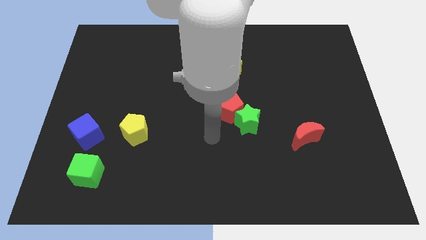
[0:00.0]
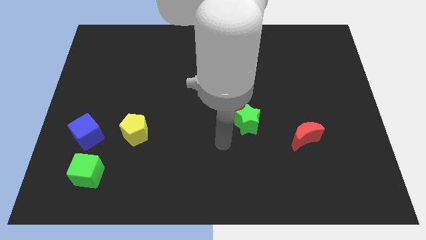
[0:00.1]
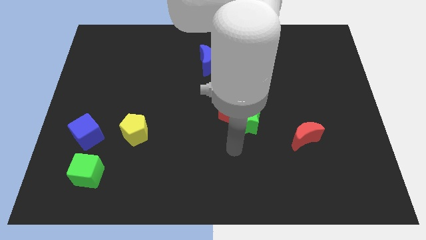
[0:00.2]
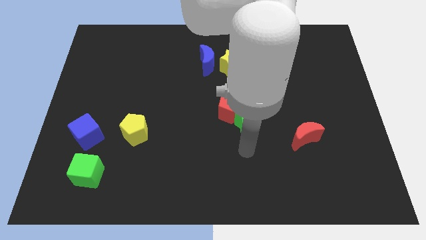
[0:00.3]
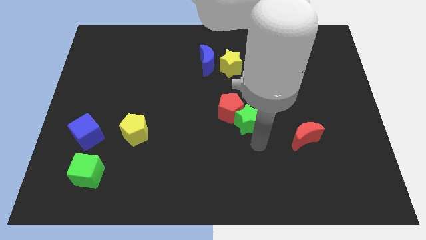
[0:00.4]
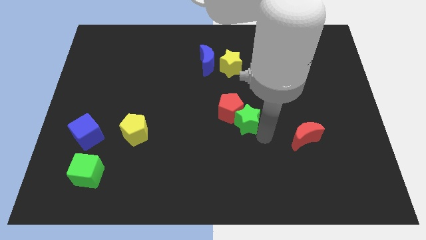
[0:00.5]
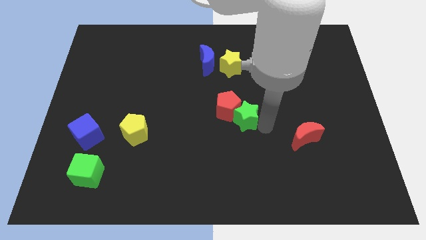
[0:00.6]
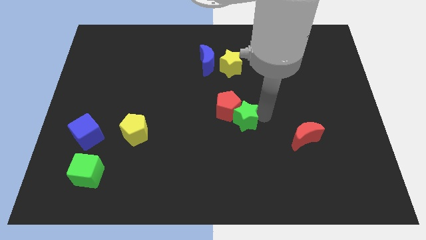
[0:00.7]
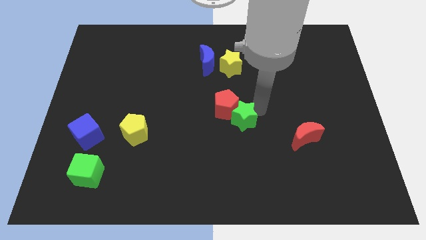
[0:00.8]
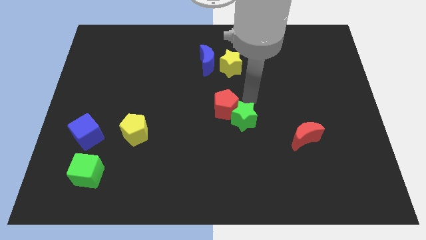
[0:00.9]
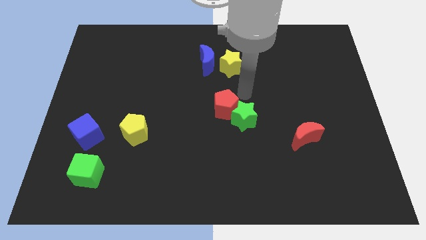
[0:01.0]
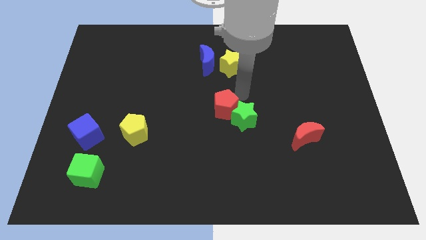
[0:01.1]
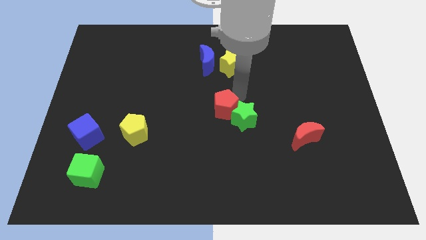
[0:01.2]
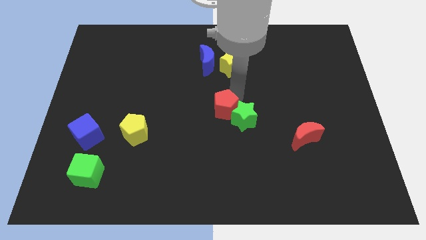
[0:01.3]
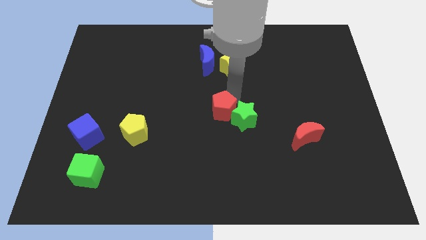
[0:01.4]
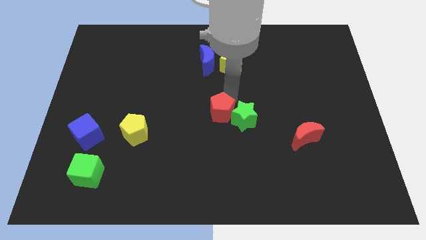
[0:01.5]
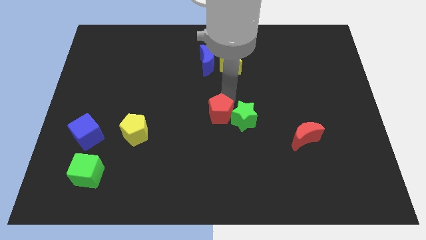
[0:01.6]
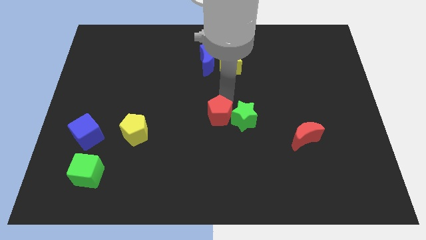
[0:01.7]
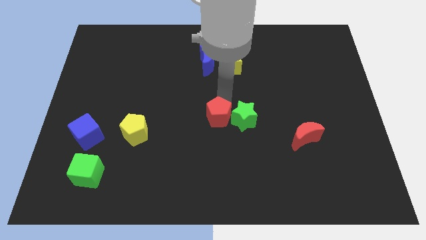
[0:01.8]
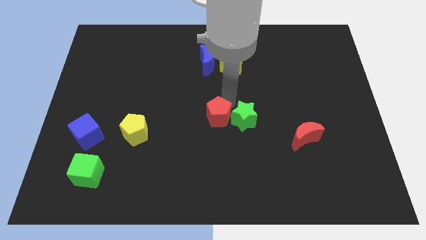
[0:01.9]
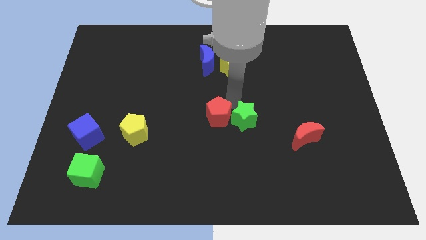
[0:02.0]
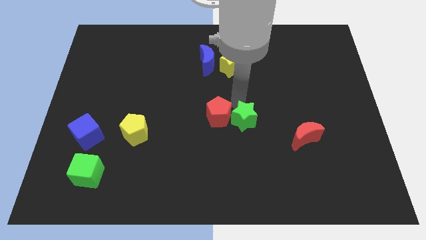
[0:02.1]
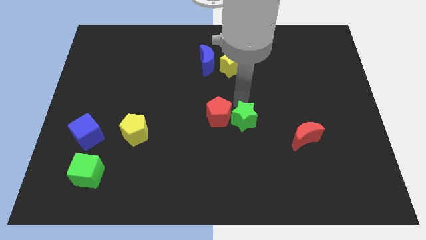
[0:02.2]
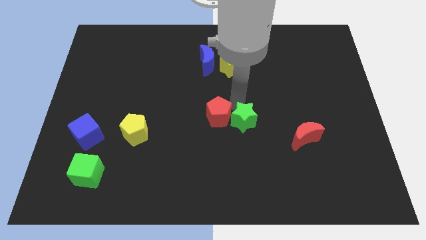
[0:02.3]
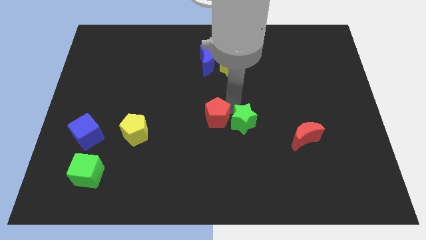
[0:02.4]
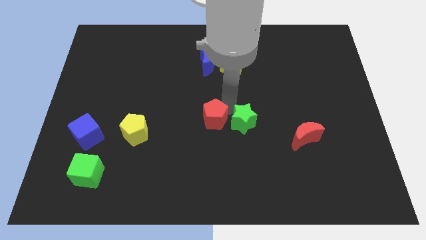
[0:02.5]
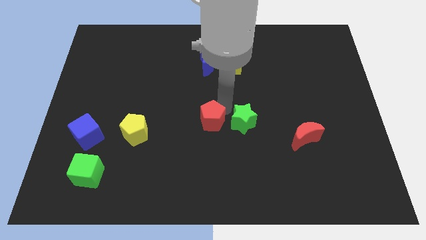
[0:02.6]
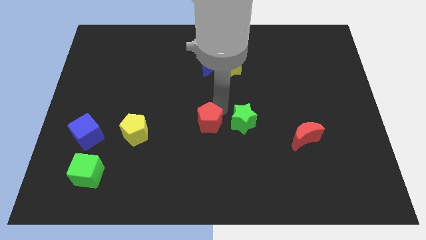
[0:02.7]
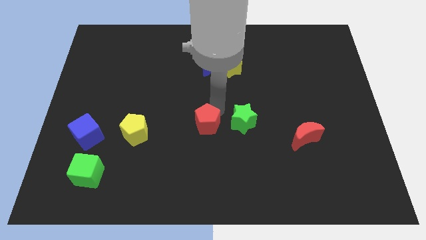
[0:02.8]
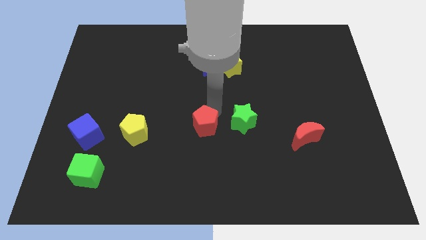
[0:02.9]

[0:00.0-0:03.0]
slightly push the red pentagon down and then to the left

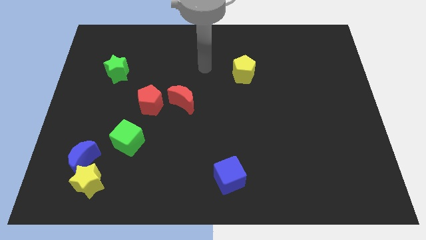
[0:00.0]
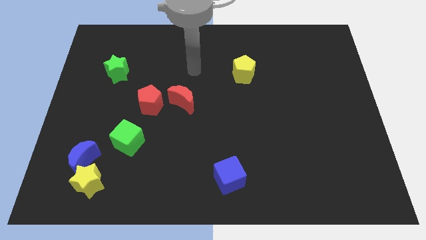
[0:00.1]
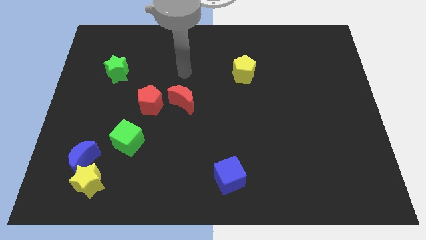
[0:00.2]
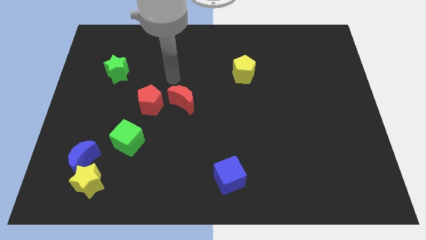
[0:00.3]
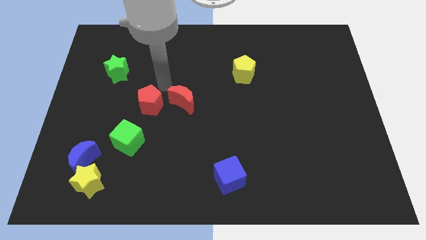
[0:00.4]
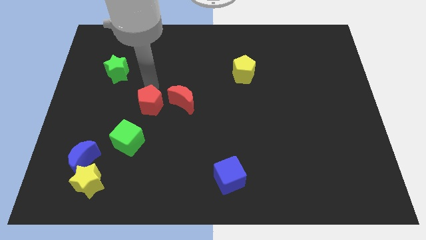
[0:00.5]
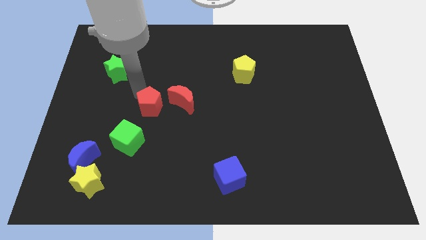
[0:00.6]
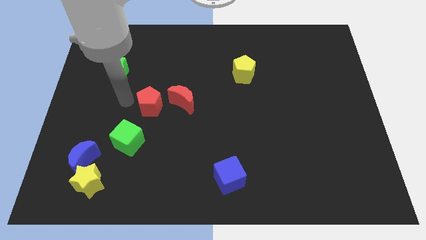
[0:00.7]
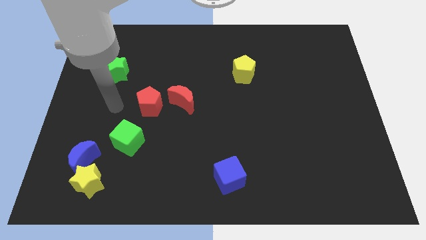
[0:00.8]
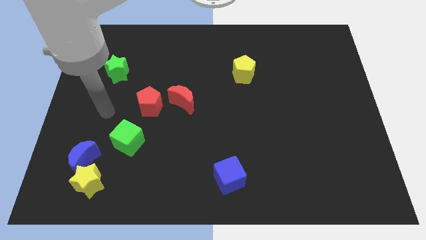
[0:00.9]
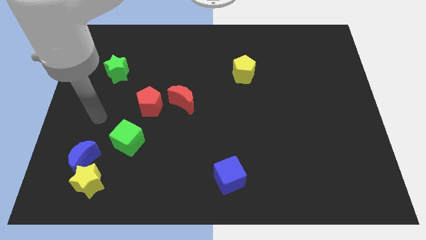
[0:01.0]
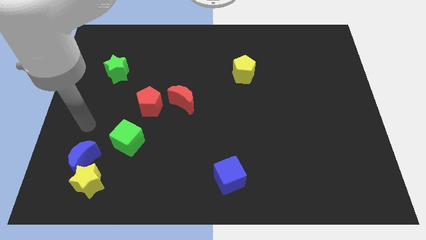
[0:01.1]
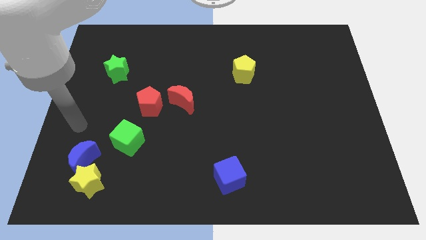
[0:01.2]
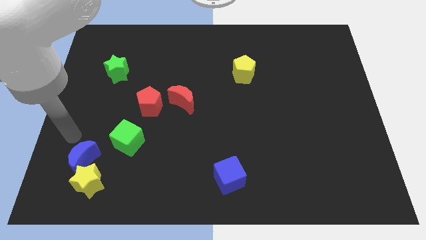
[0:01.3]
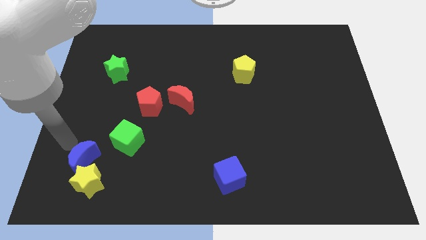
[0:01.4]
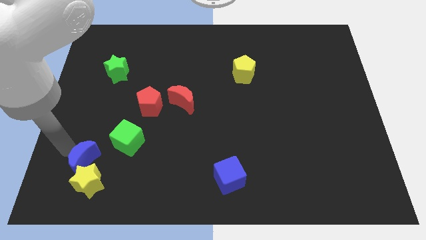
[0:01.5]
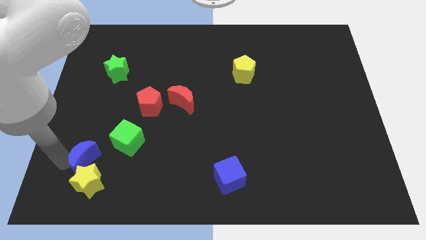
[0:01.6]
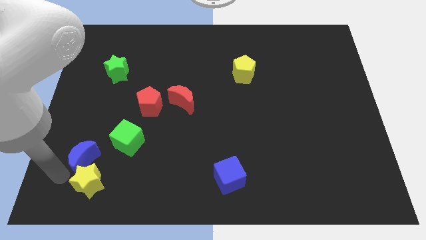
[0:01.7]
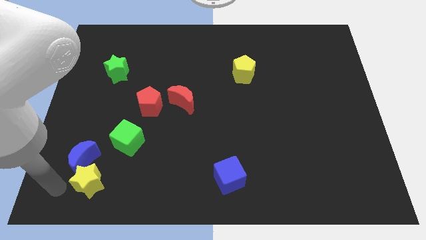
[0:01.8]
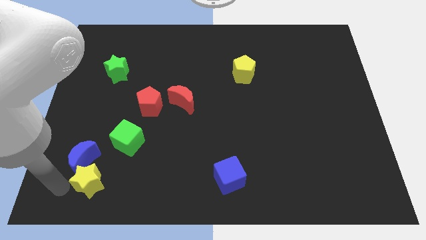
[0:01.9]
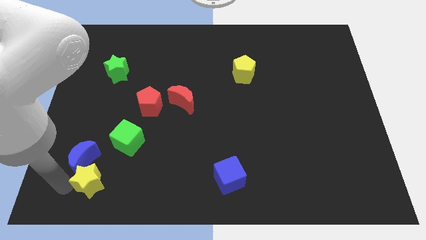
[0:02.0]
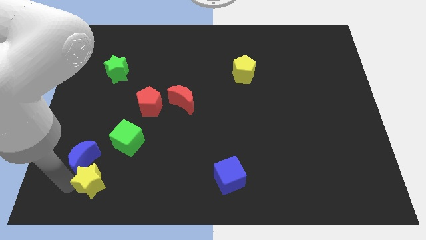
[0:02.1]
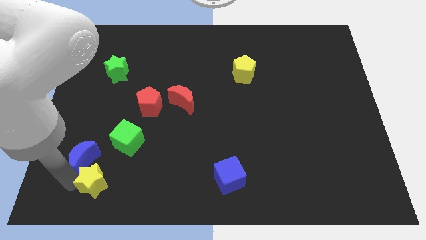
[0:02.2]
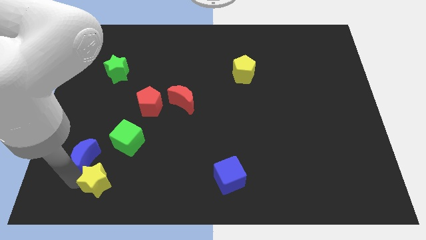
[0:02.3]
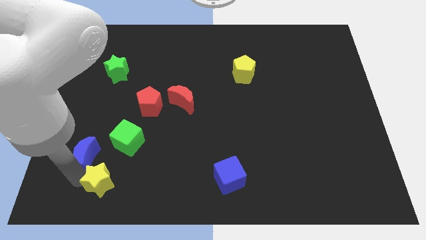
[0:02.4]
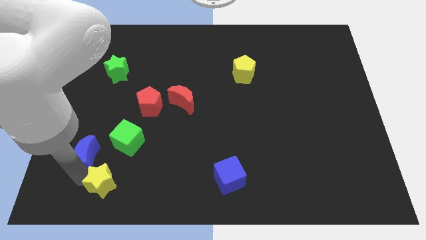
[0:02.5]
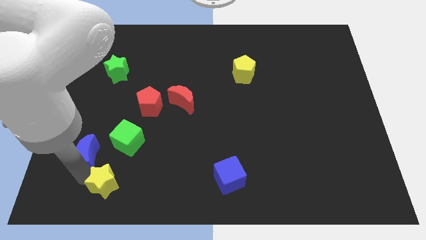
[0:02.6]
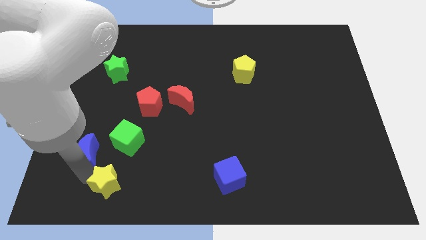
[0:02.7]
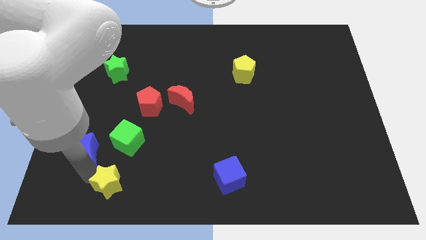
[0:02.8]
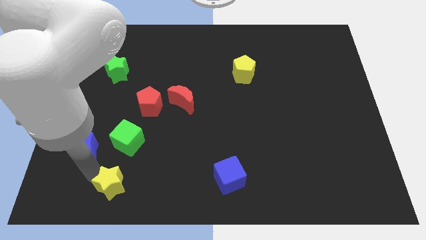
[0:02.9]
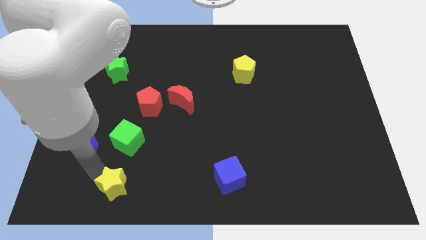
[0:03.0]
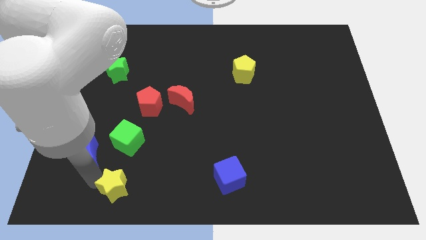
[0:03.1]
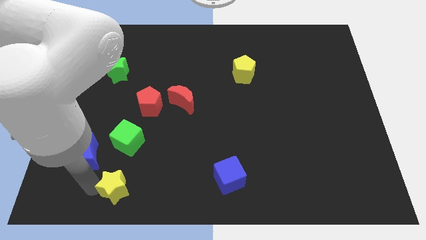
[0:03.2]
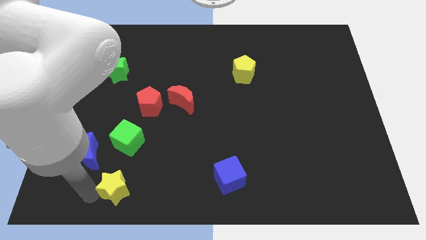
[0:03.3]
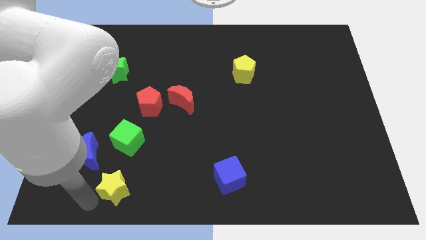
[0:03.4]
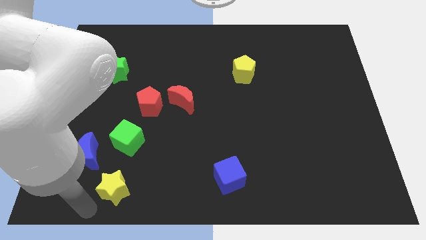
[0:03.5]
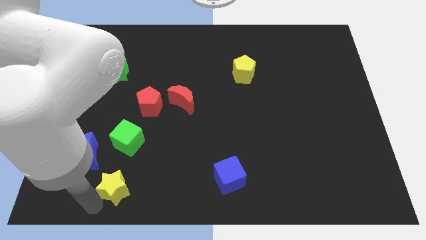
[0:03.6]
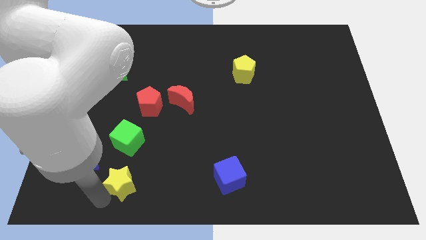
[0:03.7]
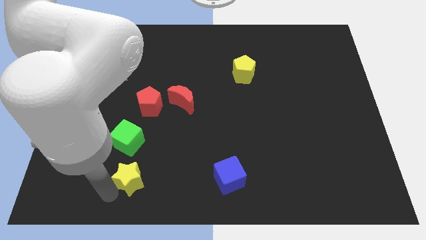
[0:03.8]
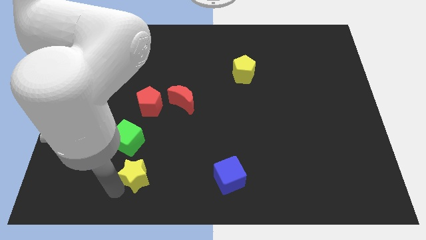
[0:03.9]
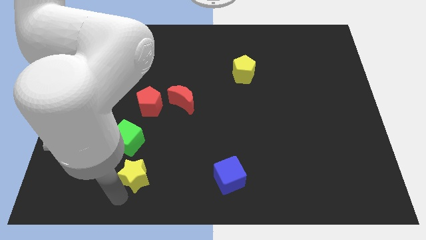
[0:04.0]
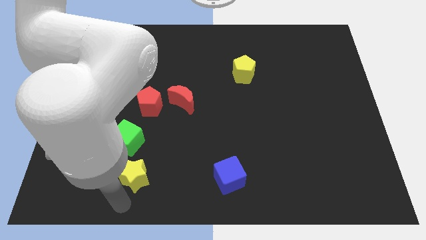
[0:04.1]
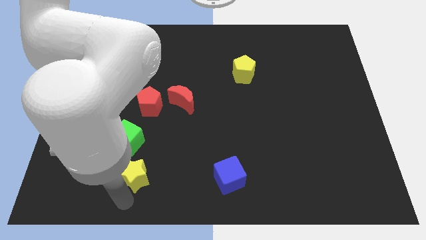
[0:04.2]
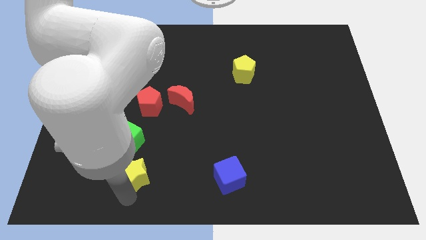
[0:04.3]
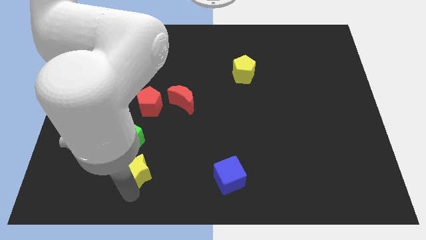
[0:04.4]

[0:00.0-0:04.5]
slightly move the yellow star diagonally upwards and right

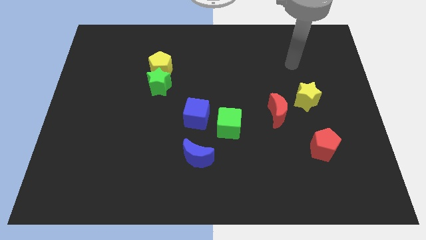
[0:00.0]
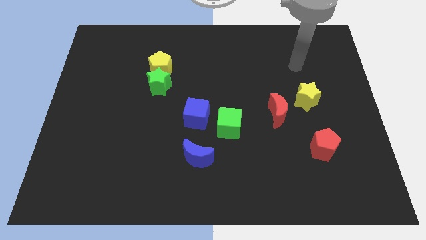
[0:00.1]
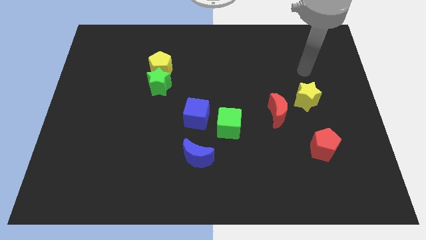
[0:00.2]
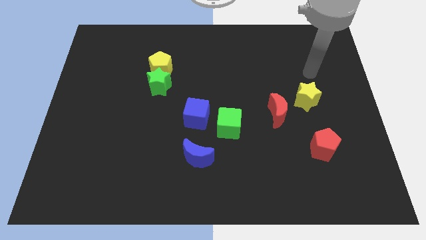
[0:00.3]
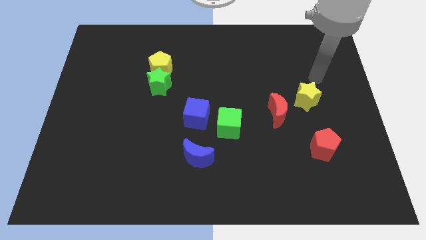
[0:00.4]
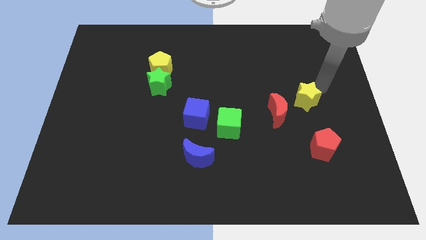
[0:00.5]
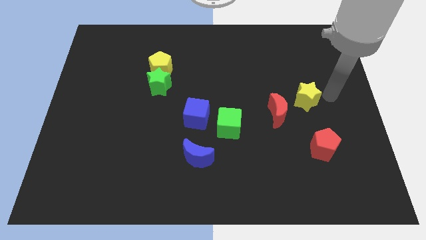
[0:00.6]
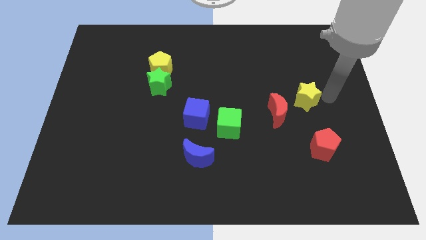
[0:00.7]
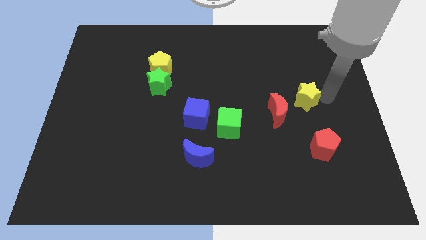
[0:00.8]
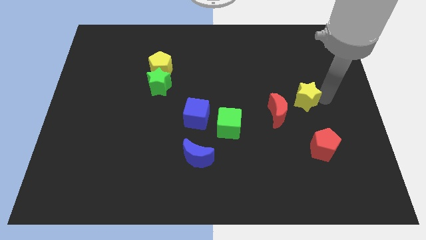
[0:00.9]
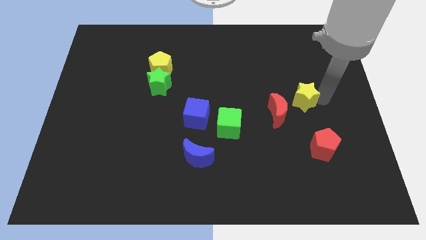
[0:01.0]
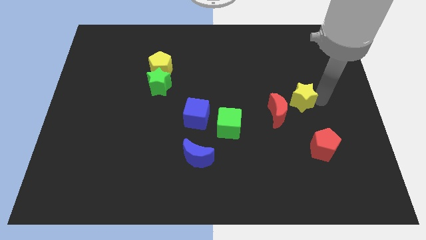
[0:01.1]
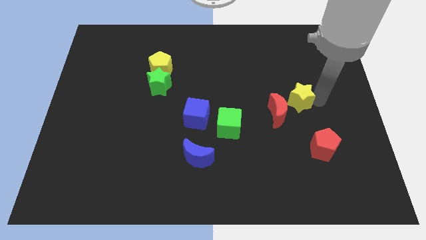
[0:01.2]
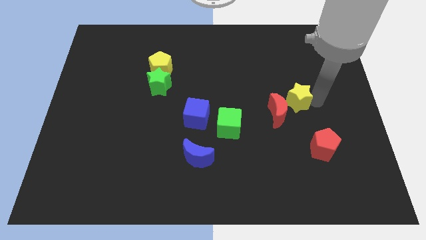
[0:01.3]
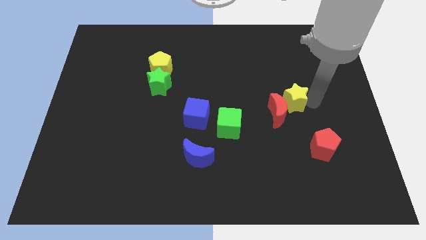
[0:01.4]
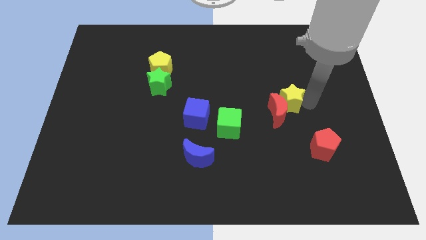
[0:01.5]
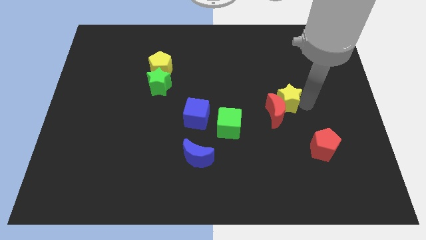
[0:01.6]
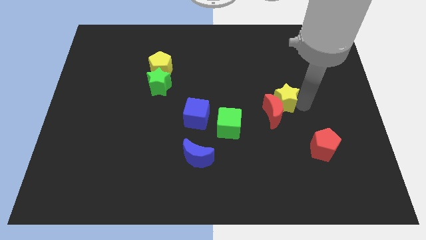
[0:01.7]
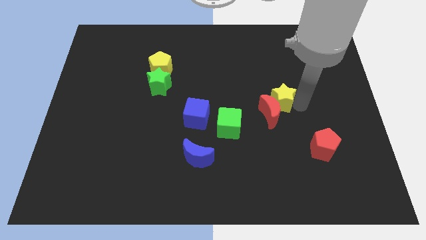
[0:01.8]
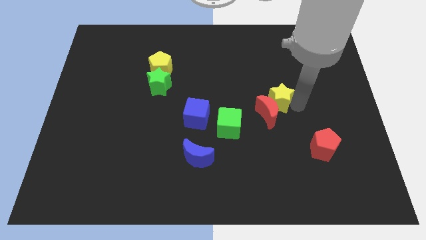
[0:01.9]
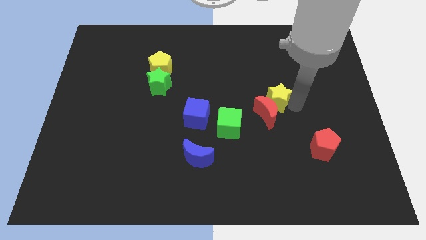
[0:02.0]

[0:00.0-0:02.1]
move the yellow star left a little bit
